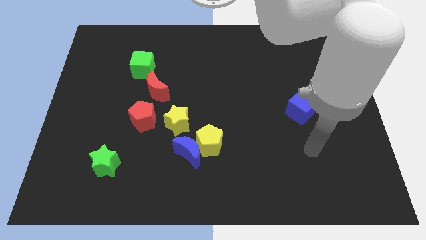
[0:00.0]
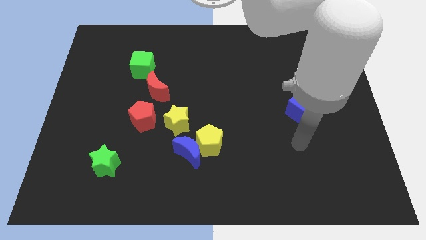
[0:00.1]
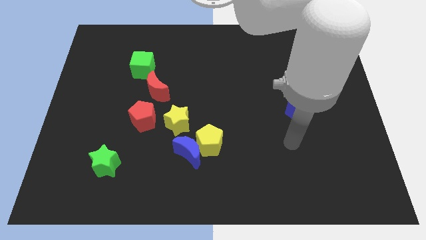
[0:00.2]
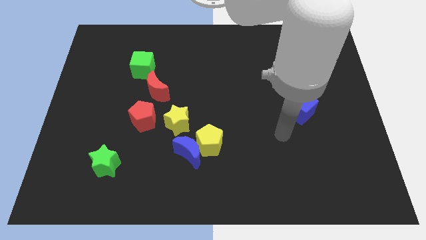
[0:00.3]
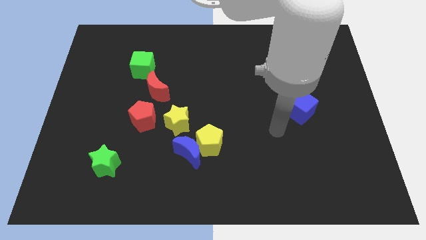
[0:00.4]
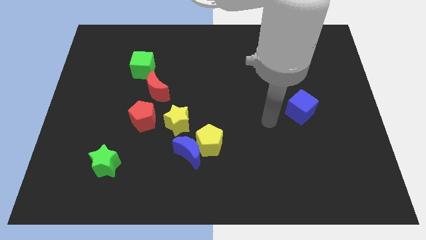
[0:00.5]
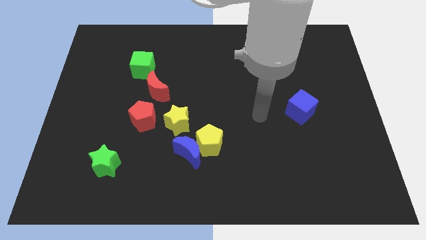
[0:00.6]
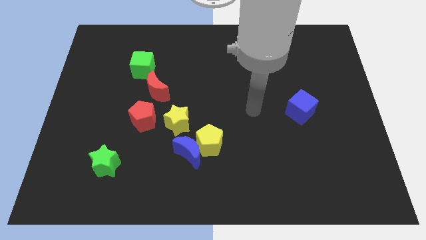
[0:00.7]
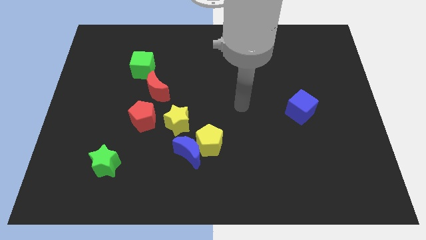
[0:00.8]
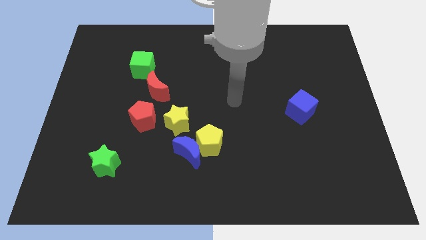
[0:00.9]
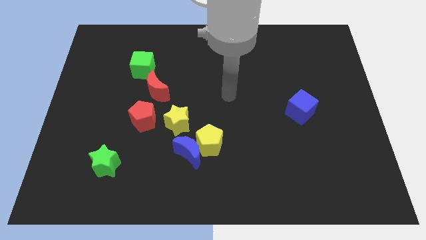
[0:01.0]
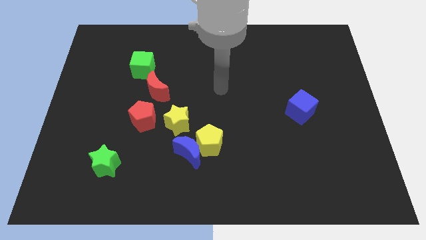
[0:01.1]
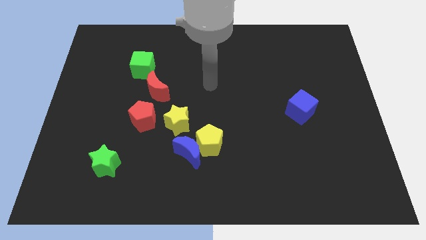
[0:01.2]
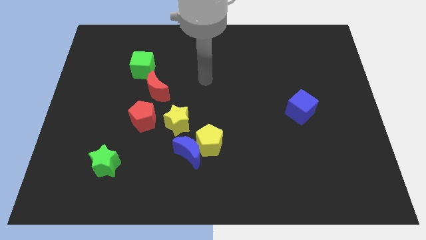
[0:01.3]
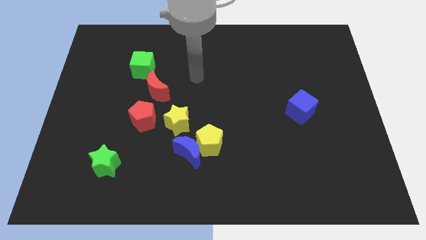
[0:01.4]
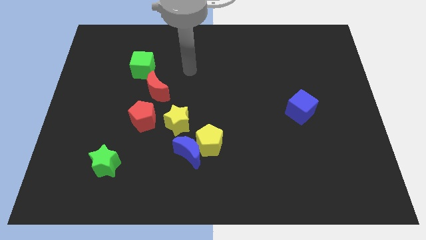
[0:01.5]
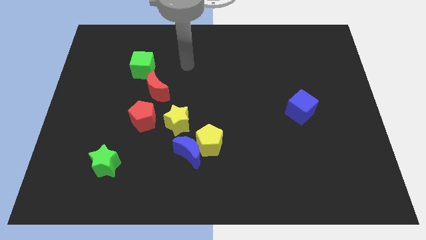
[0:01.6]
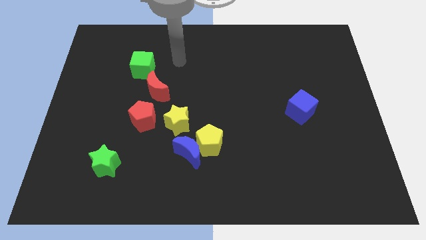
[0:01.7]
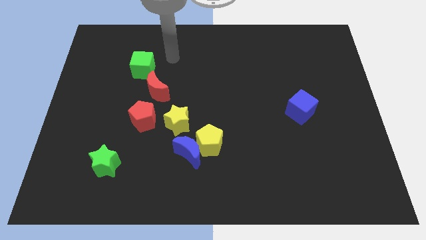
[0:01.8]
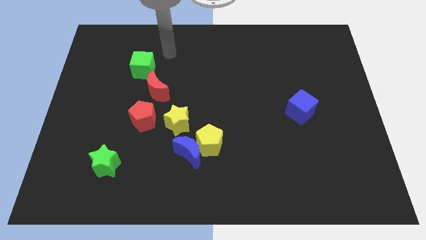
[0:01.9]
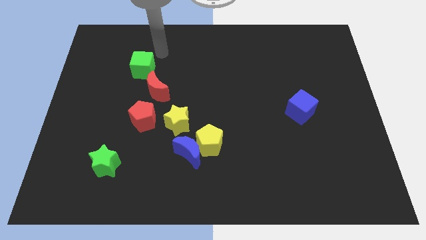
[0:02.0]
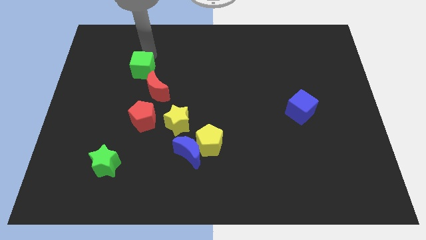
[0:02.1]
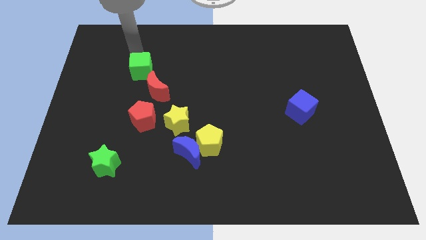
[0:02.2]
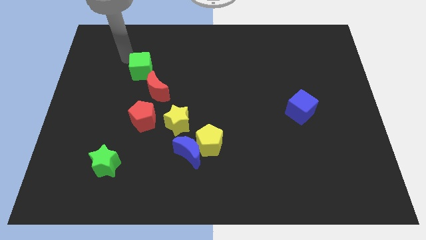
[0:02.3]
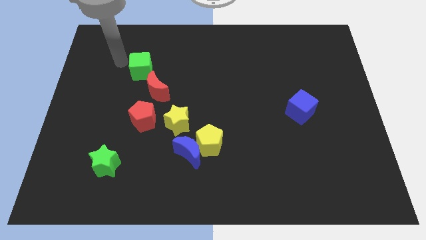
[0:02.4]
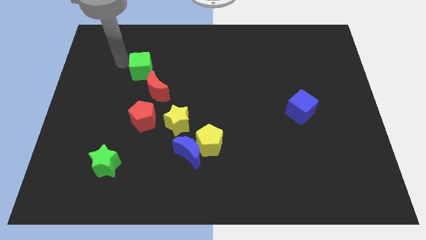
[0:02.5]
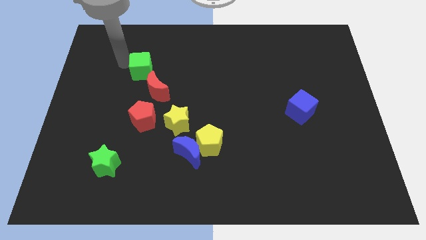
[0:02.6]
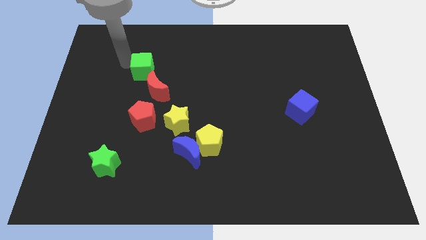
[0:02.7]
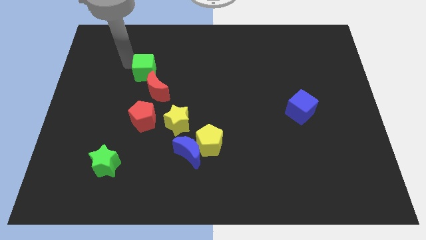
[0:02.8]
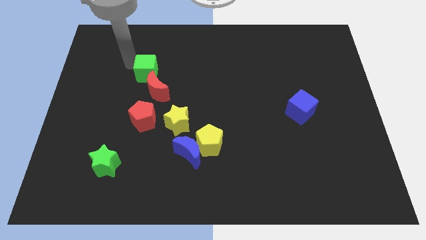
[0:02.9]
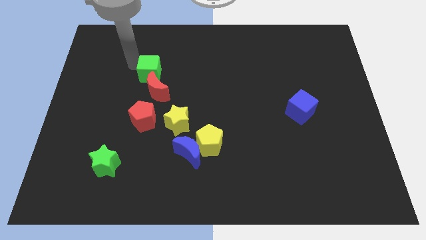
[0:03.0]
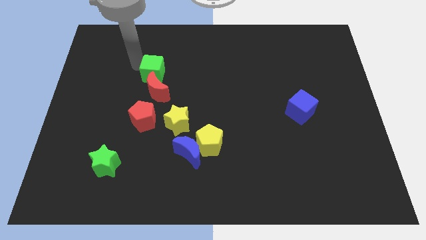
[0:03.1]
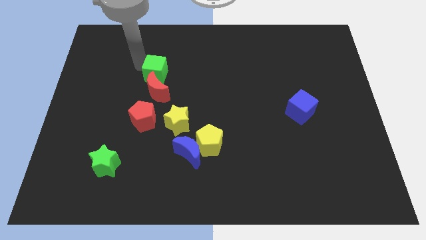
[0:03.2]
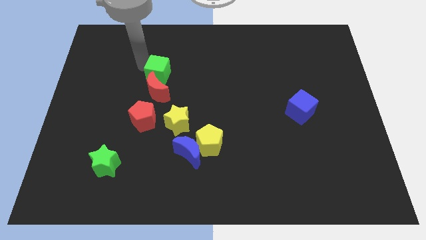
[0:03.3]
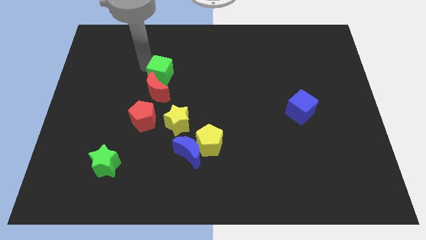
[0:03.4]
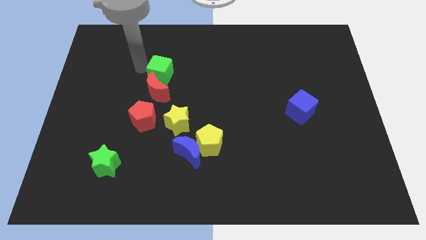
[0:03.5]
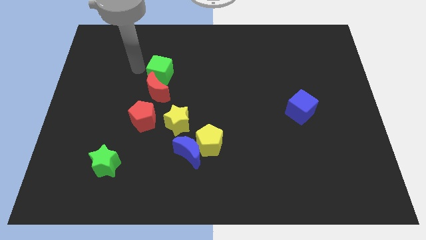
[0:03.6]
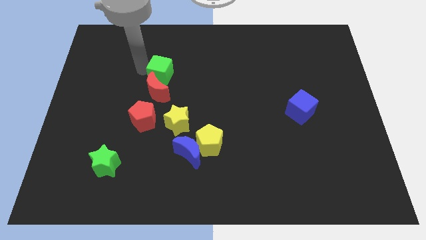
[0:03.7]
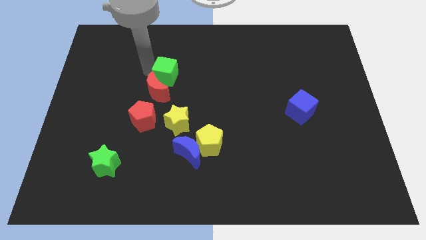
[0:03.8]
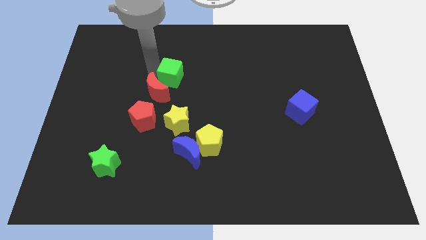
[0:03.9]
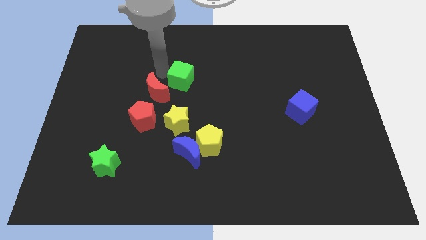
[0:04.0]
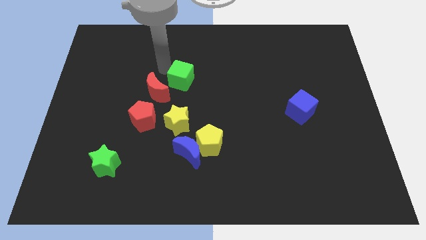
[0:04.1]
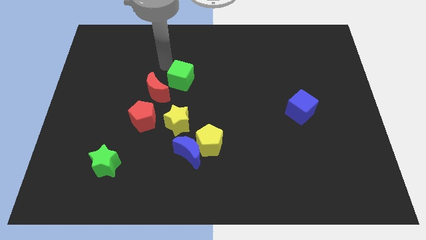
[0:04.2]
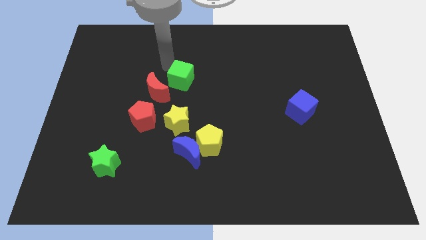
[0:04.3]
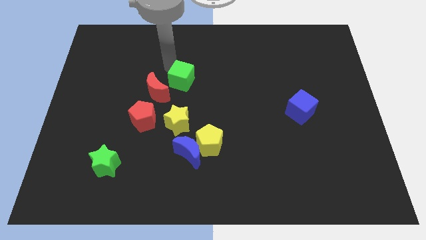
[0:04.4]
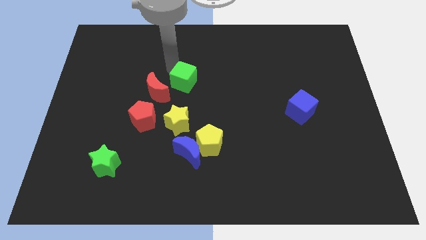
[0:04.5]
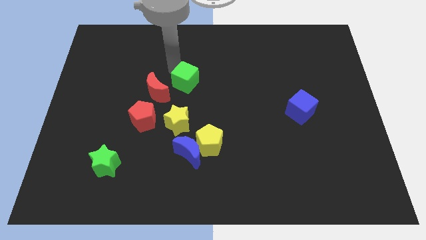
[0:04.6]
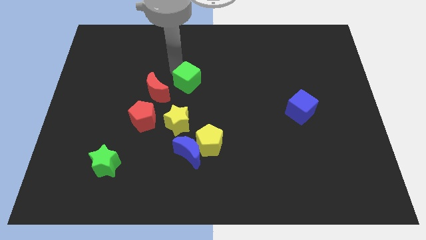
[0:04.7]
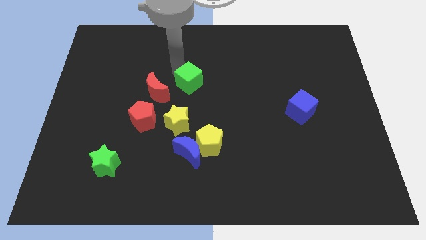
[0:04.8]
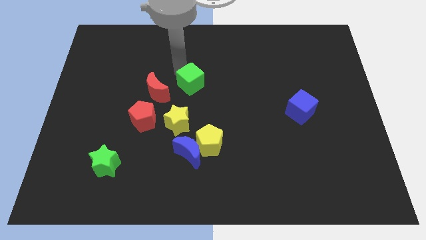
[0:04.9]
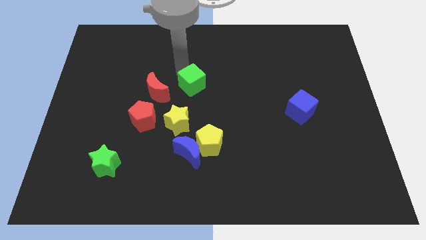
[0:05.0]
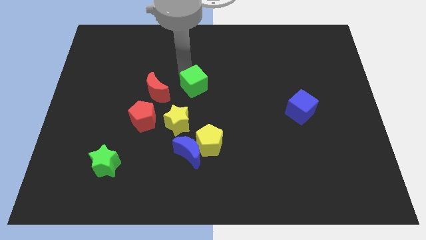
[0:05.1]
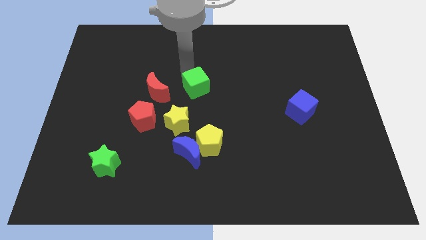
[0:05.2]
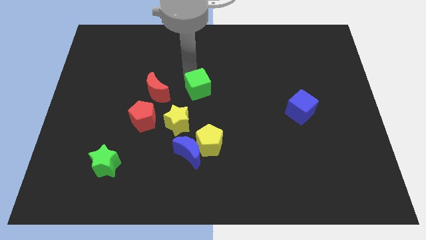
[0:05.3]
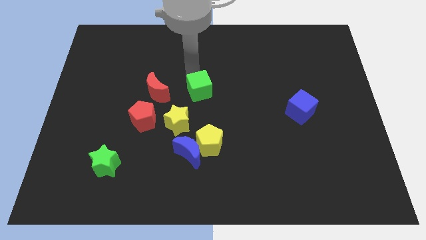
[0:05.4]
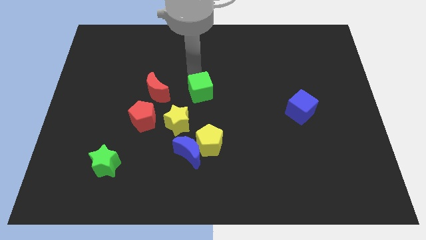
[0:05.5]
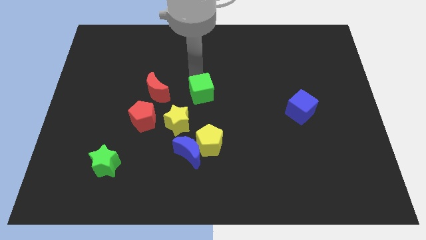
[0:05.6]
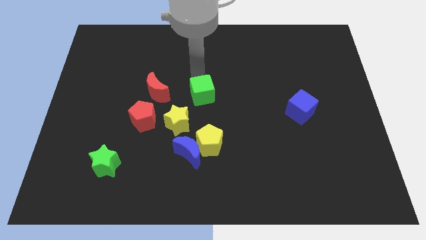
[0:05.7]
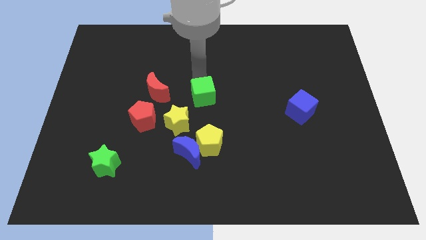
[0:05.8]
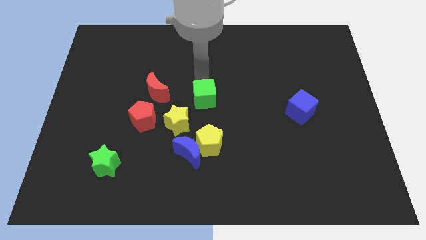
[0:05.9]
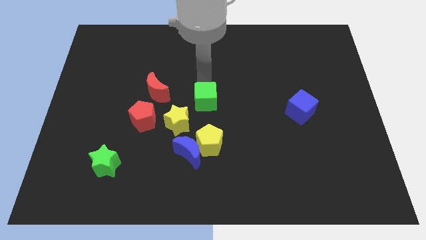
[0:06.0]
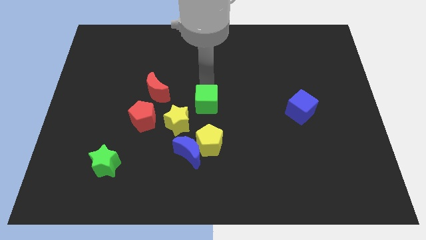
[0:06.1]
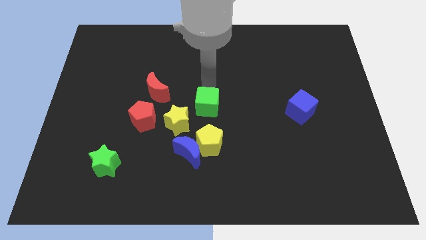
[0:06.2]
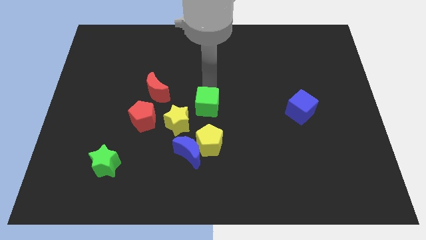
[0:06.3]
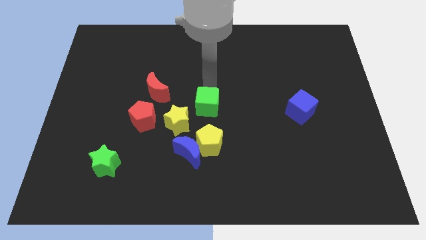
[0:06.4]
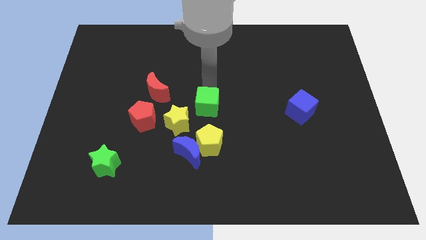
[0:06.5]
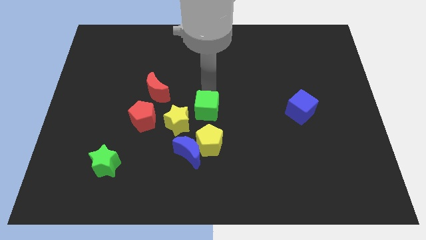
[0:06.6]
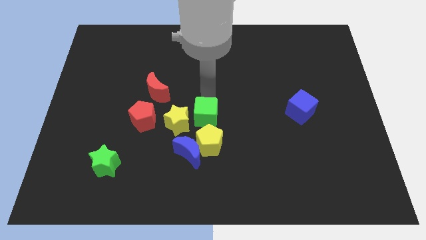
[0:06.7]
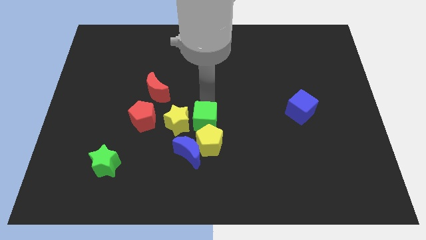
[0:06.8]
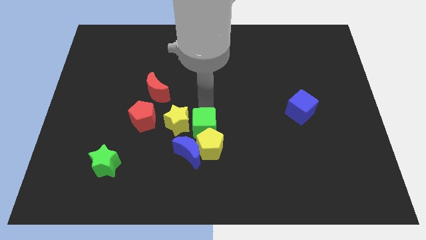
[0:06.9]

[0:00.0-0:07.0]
put the green cube towards the yellow pentagon

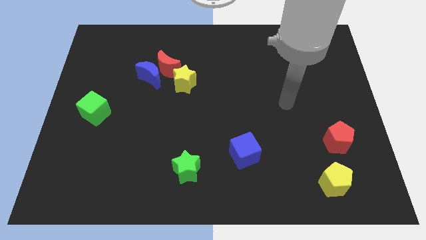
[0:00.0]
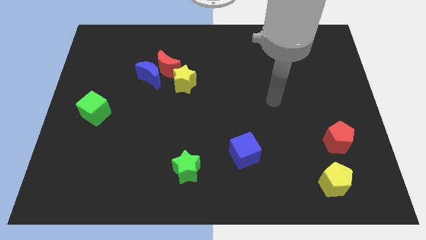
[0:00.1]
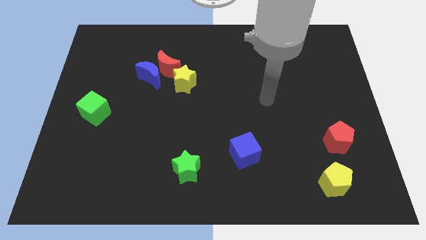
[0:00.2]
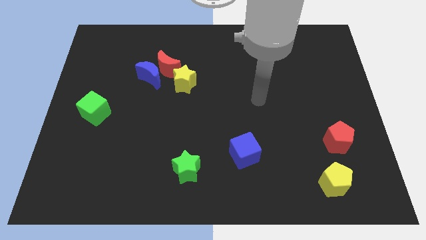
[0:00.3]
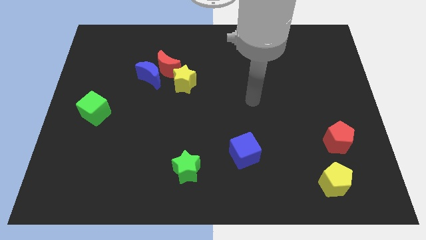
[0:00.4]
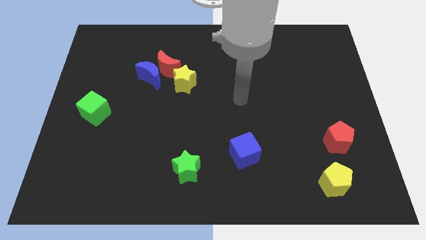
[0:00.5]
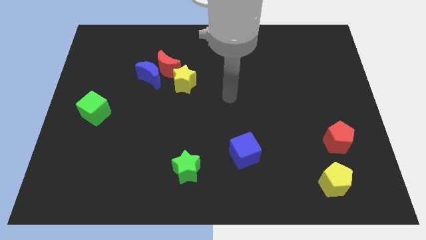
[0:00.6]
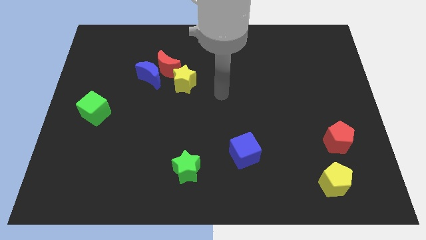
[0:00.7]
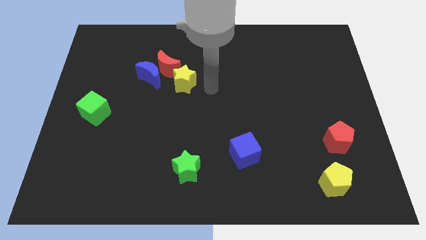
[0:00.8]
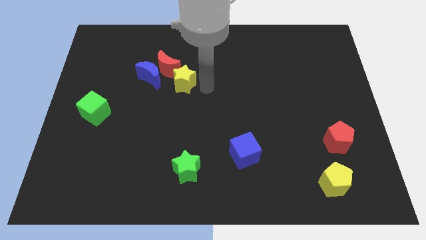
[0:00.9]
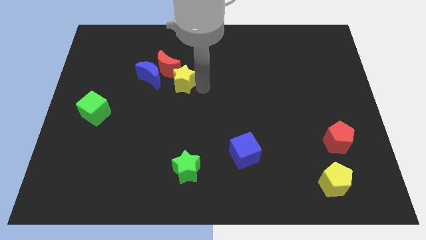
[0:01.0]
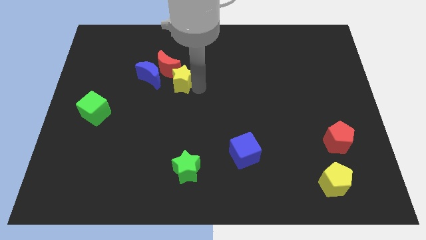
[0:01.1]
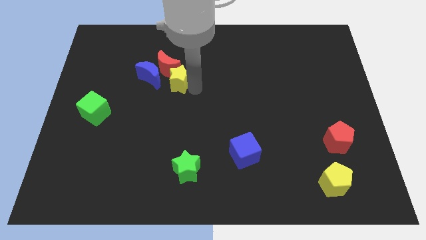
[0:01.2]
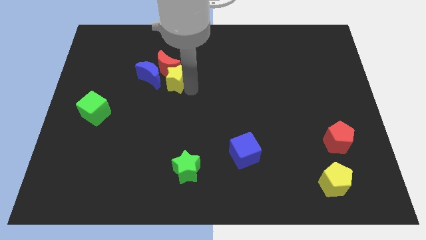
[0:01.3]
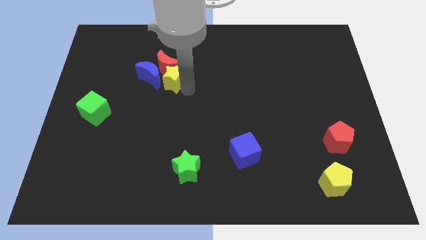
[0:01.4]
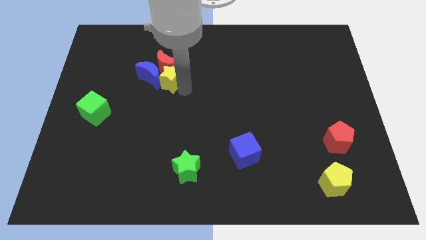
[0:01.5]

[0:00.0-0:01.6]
put the yellow star towards the blue moon
